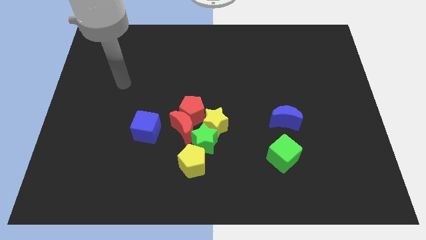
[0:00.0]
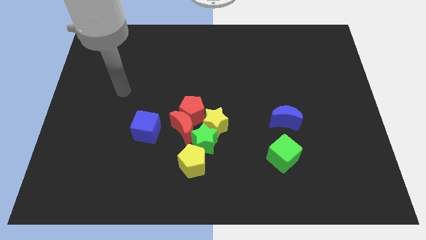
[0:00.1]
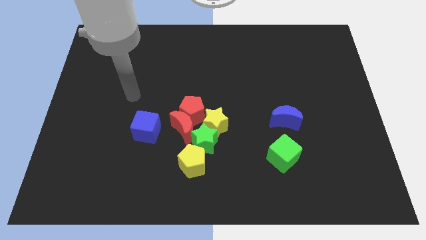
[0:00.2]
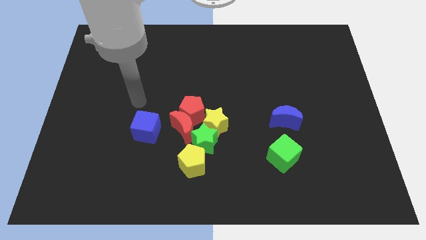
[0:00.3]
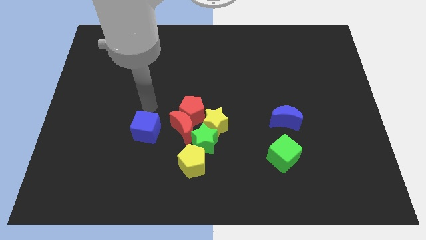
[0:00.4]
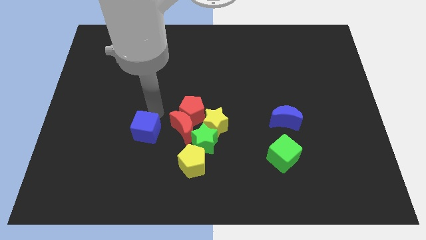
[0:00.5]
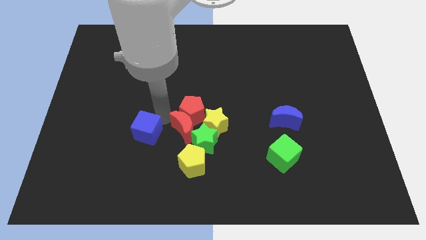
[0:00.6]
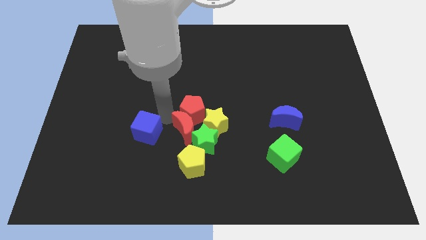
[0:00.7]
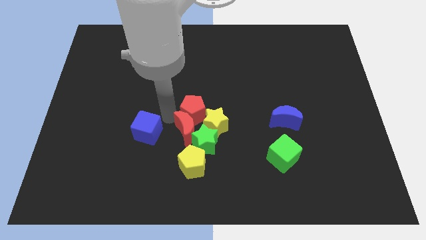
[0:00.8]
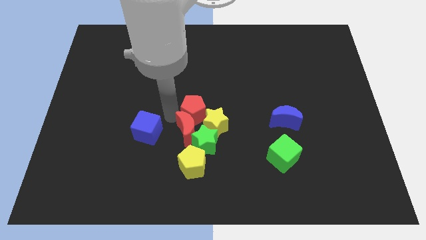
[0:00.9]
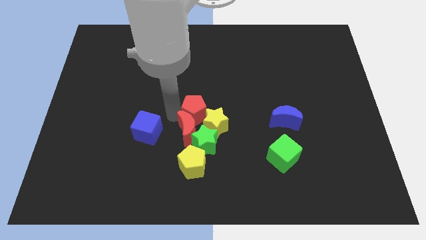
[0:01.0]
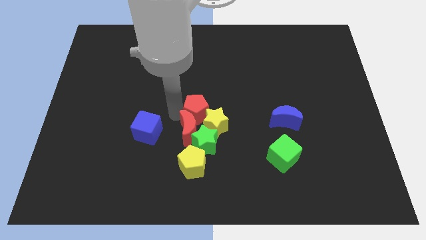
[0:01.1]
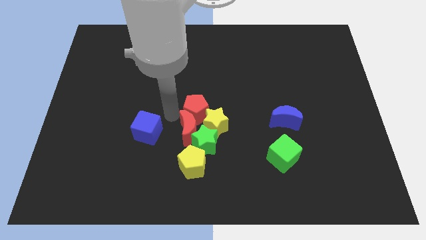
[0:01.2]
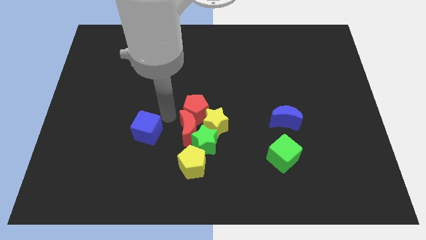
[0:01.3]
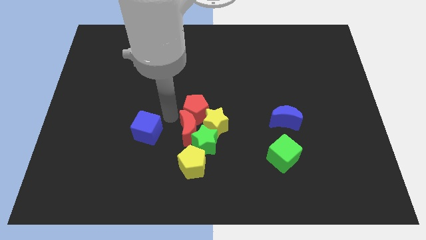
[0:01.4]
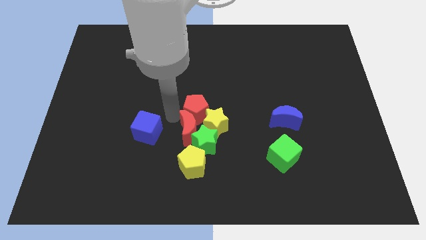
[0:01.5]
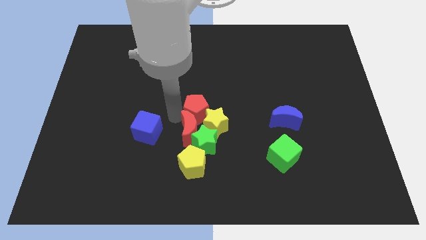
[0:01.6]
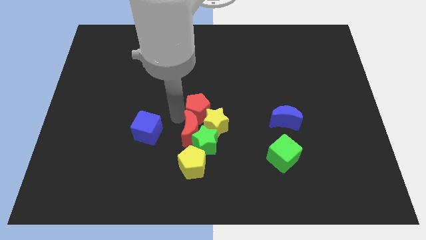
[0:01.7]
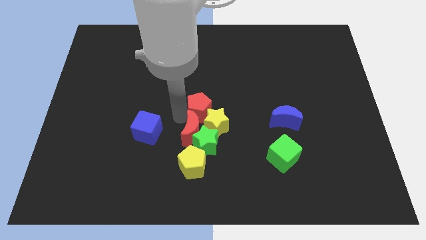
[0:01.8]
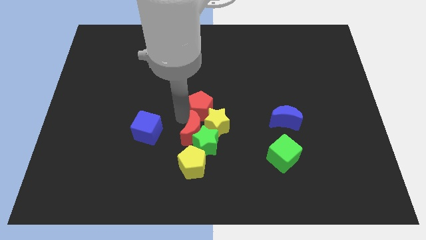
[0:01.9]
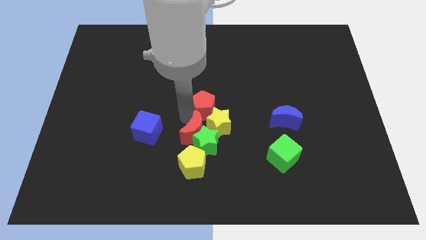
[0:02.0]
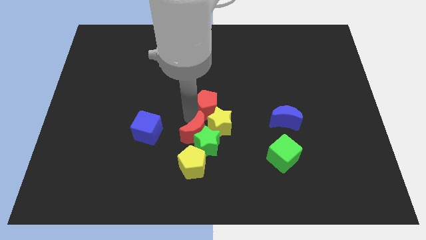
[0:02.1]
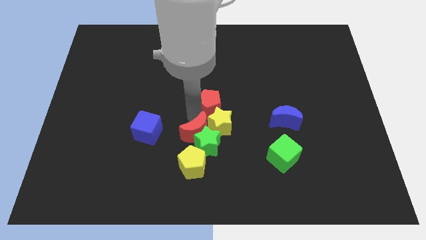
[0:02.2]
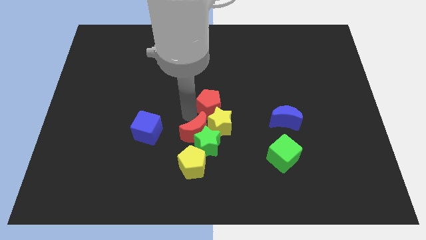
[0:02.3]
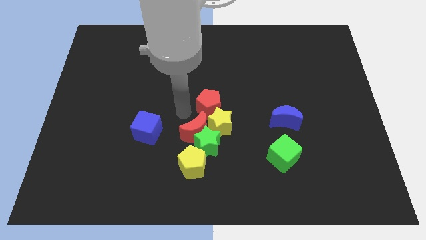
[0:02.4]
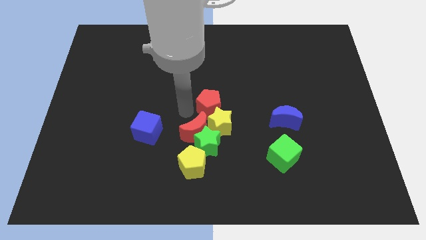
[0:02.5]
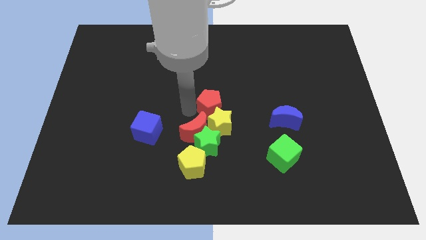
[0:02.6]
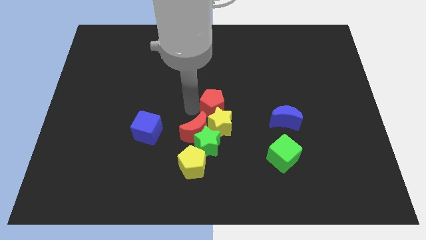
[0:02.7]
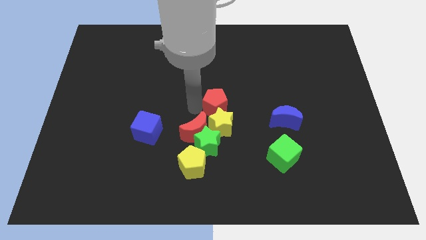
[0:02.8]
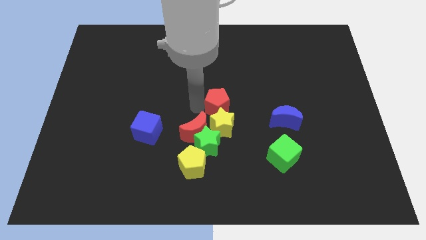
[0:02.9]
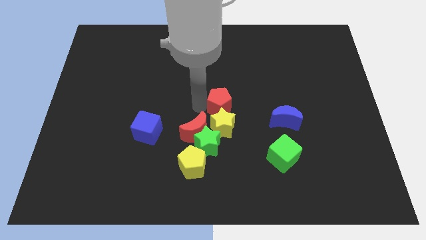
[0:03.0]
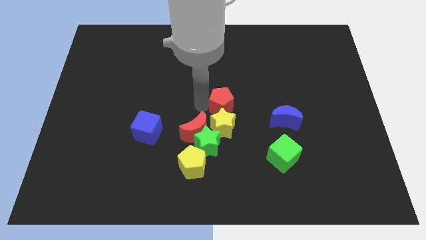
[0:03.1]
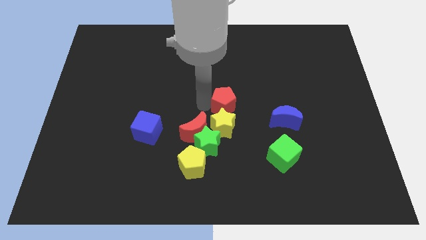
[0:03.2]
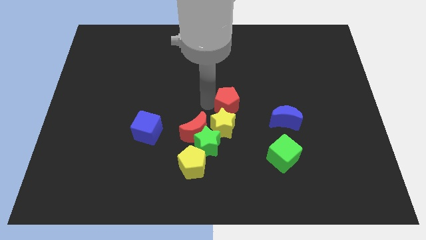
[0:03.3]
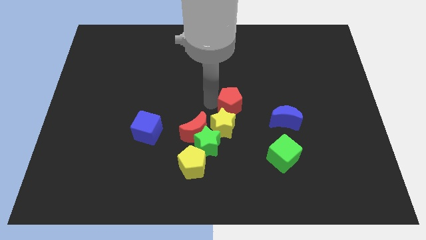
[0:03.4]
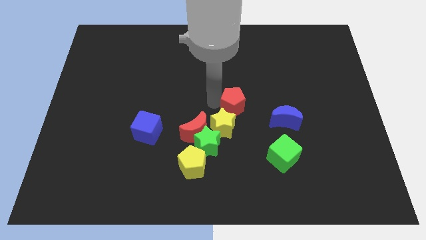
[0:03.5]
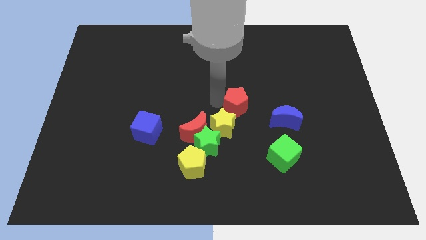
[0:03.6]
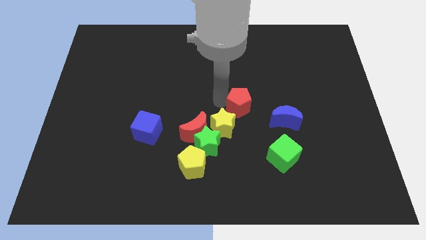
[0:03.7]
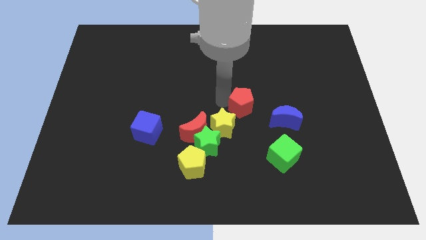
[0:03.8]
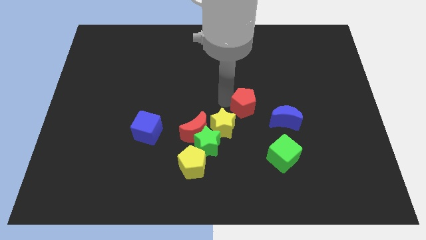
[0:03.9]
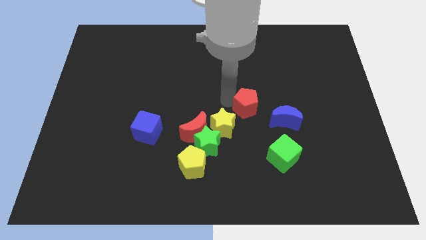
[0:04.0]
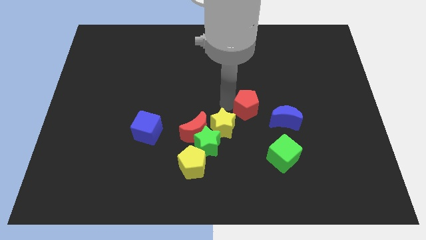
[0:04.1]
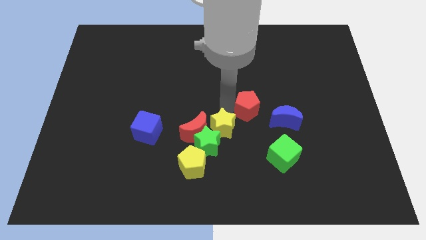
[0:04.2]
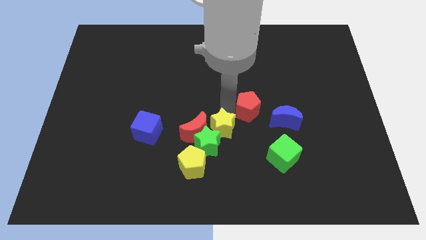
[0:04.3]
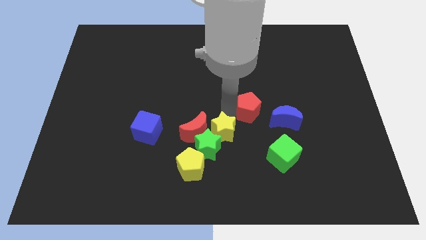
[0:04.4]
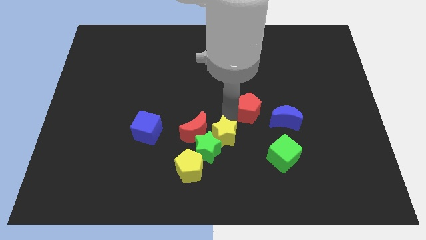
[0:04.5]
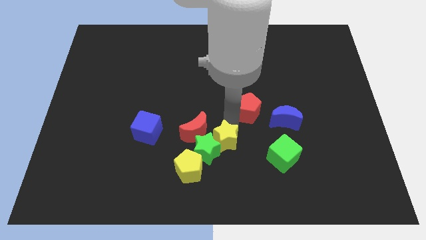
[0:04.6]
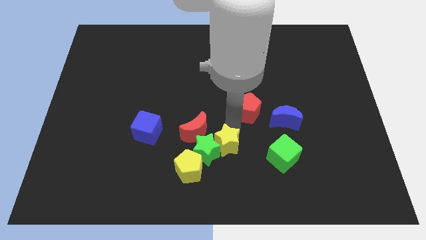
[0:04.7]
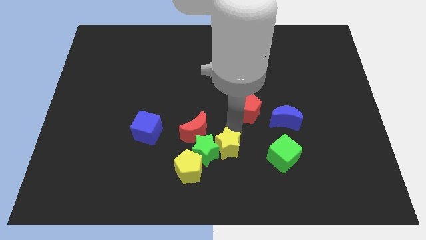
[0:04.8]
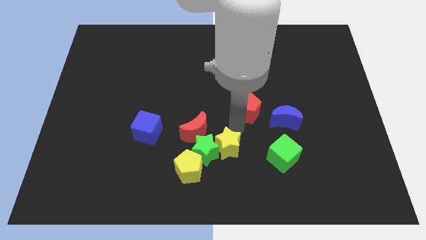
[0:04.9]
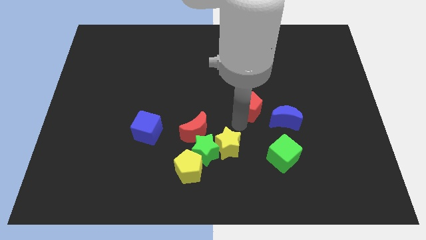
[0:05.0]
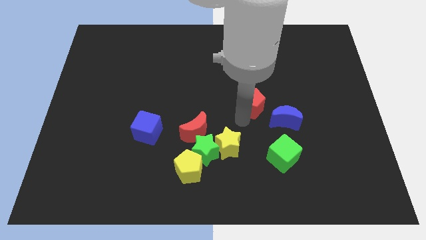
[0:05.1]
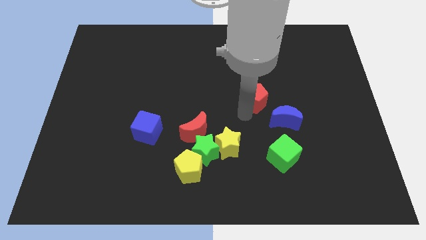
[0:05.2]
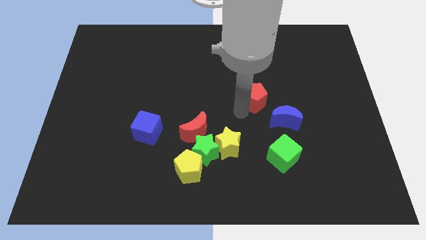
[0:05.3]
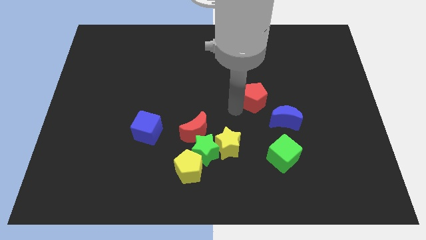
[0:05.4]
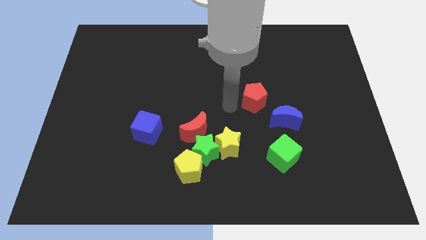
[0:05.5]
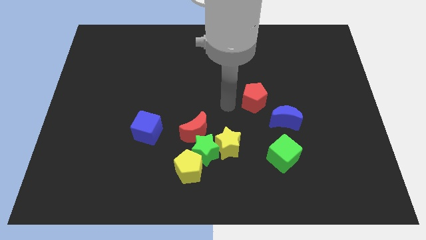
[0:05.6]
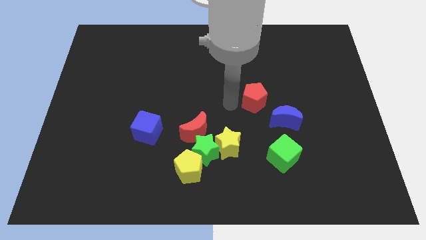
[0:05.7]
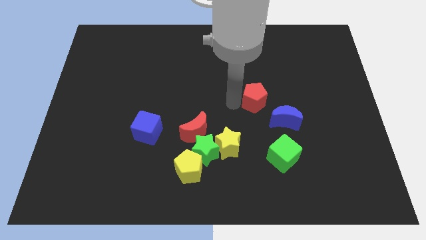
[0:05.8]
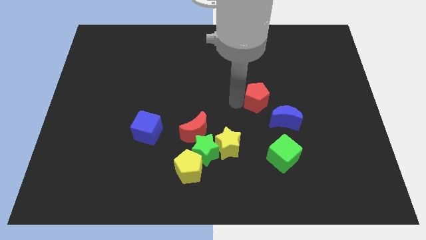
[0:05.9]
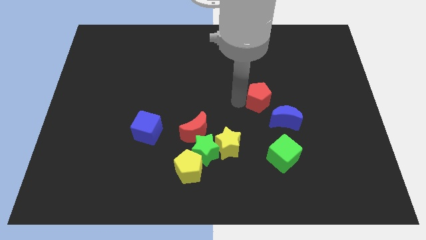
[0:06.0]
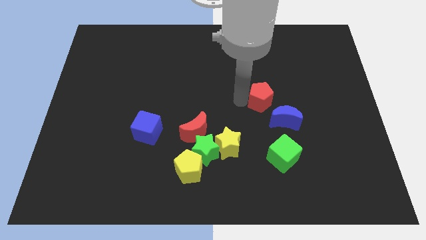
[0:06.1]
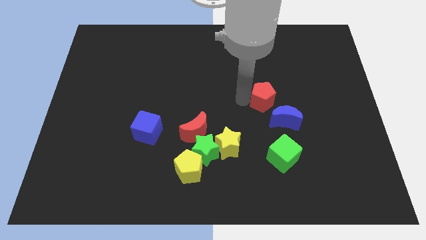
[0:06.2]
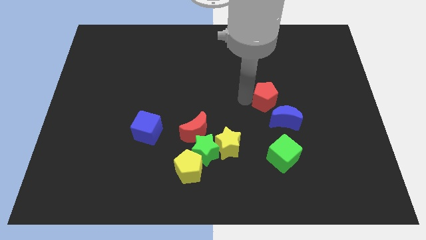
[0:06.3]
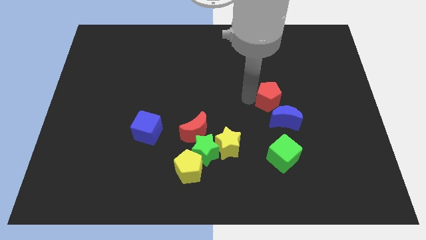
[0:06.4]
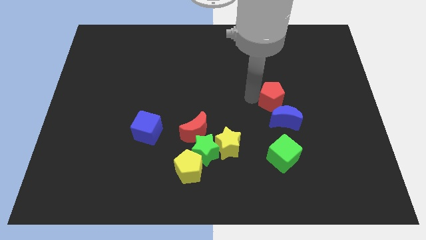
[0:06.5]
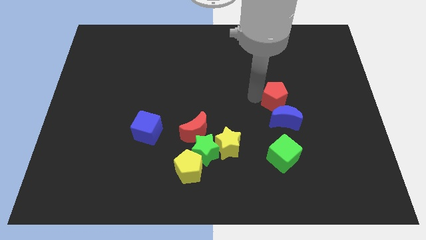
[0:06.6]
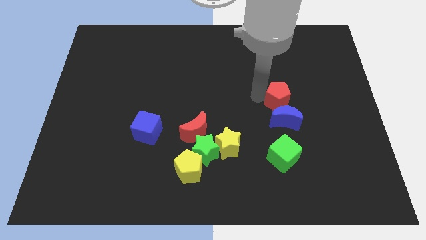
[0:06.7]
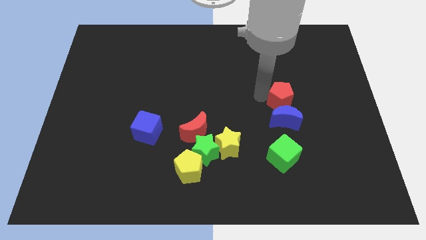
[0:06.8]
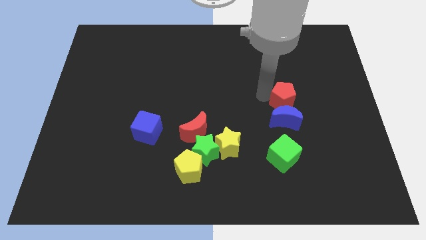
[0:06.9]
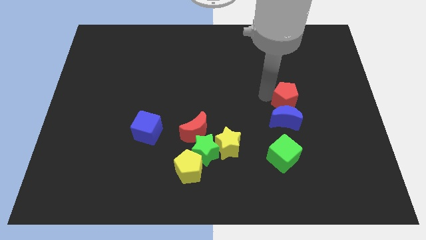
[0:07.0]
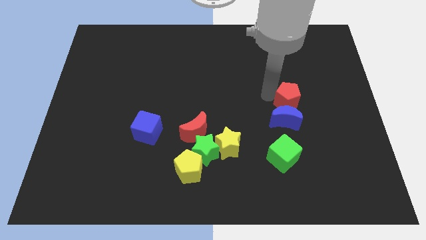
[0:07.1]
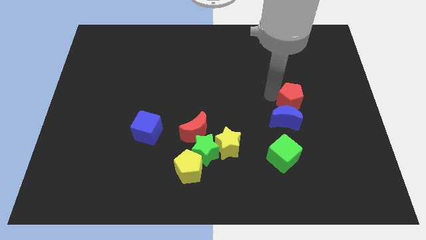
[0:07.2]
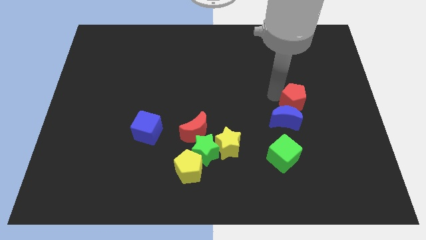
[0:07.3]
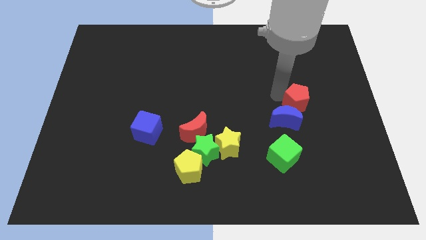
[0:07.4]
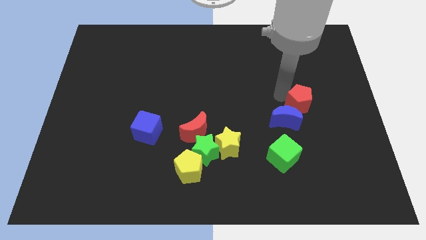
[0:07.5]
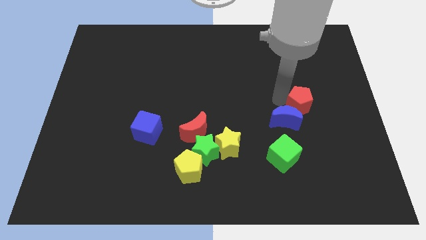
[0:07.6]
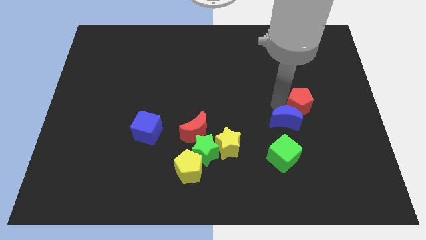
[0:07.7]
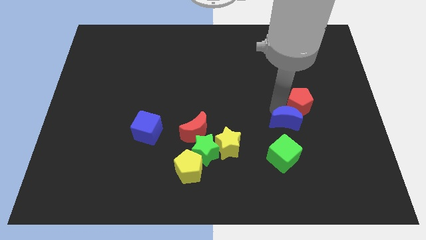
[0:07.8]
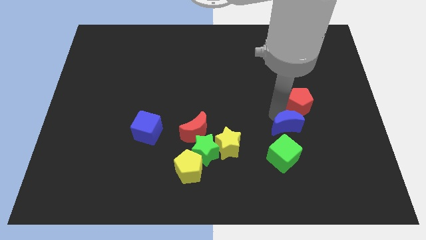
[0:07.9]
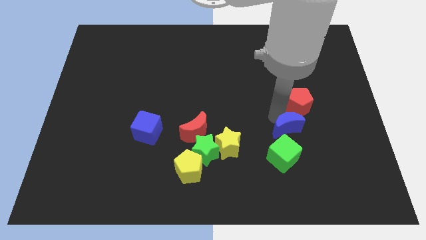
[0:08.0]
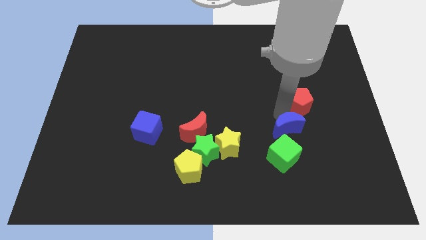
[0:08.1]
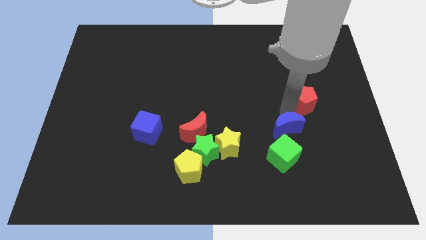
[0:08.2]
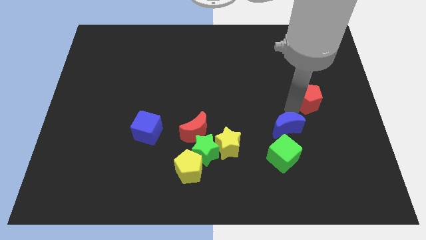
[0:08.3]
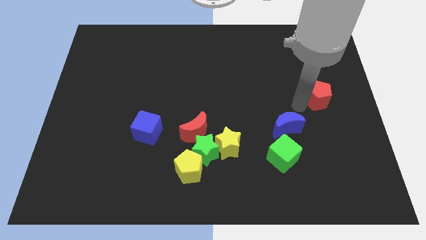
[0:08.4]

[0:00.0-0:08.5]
put the red pentagon to the center right
